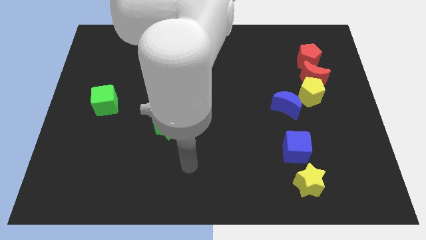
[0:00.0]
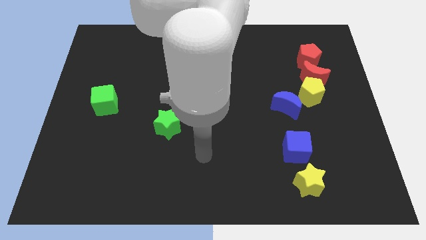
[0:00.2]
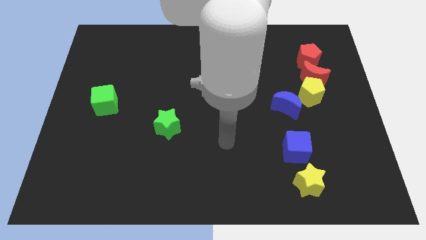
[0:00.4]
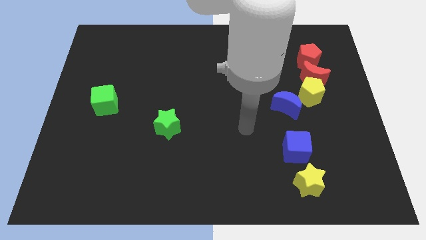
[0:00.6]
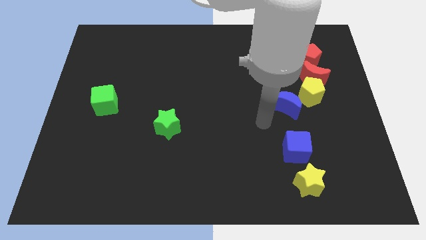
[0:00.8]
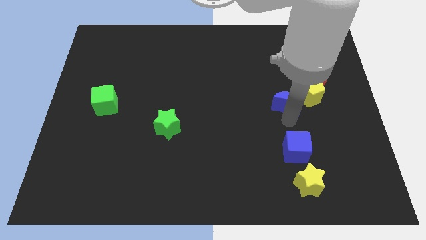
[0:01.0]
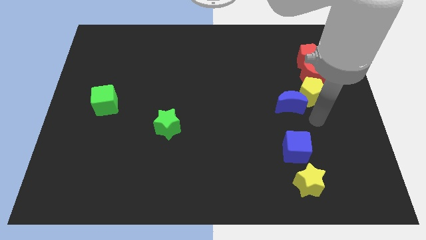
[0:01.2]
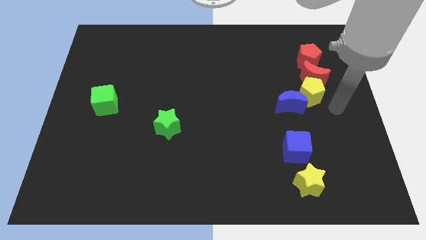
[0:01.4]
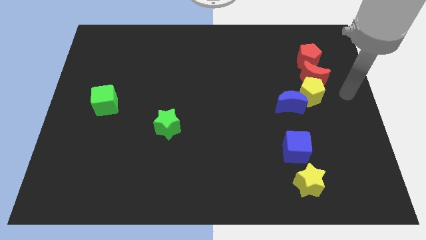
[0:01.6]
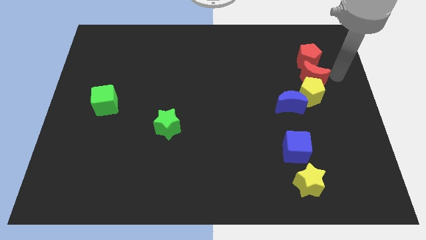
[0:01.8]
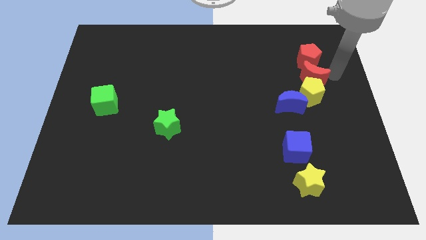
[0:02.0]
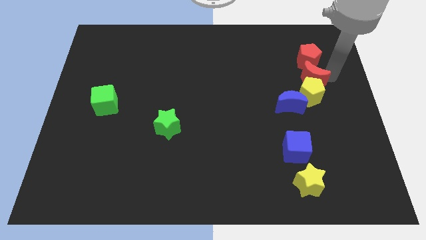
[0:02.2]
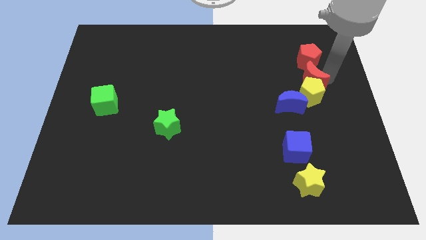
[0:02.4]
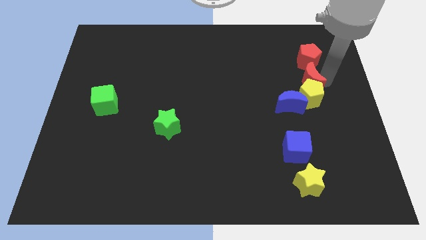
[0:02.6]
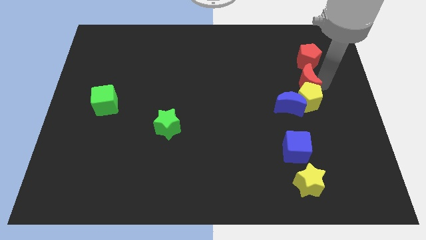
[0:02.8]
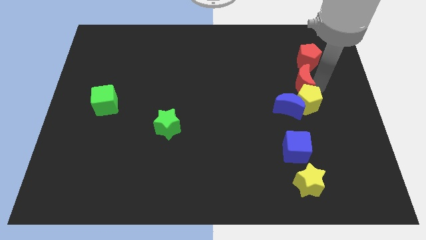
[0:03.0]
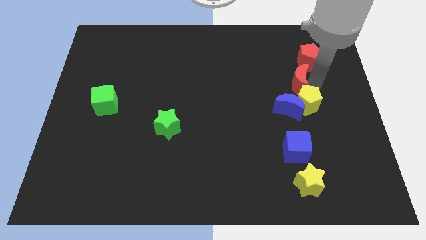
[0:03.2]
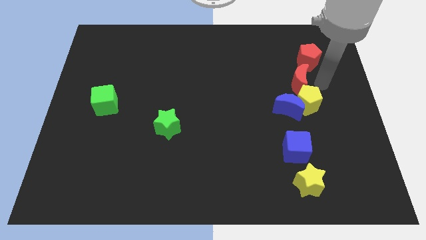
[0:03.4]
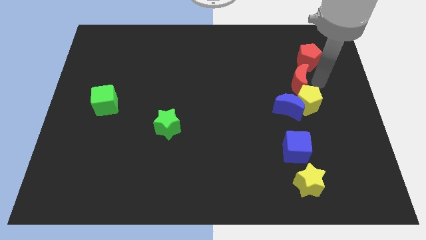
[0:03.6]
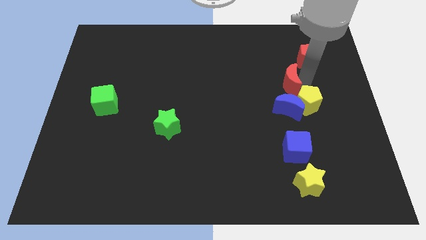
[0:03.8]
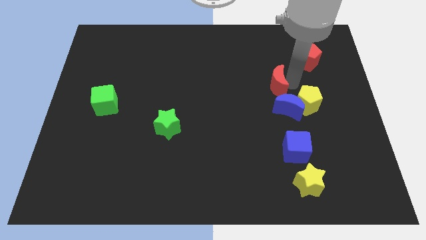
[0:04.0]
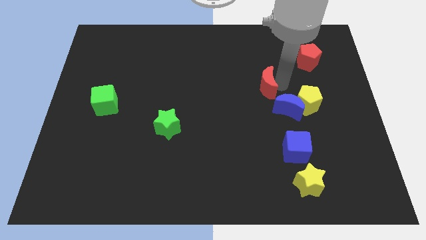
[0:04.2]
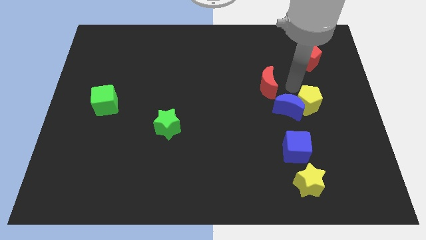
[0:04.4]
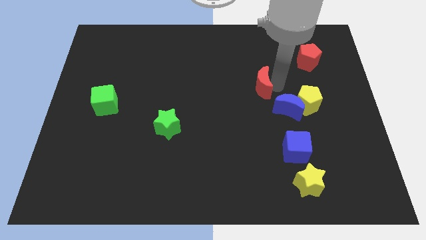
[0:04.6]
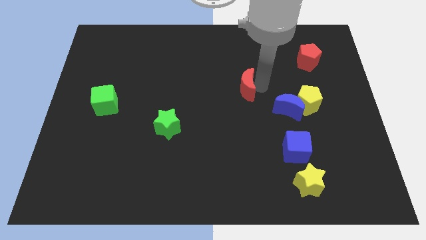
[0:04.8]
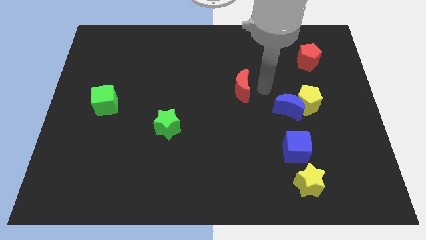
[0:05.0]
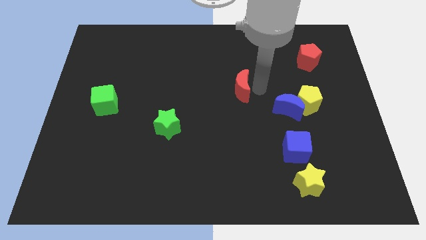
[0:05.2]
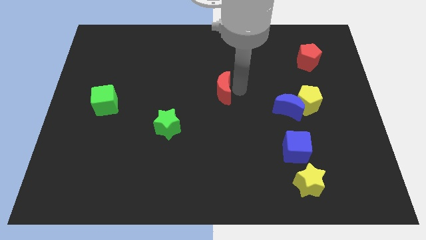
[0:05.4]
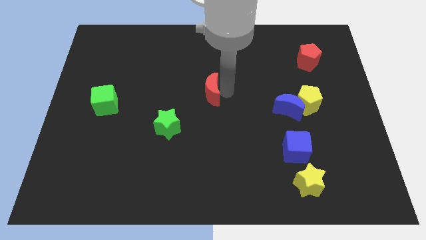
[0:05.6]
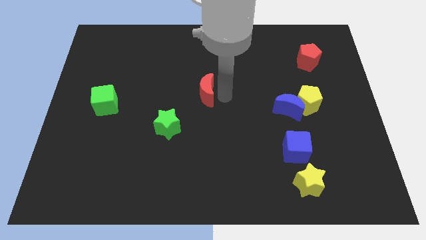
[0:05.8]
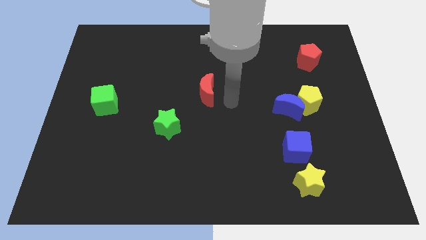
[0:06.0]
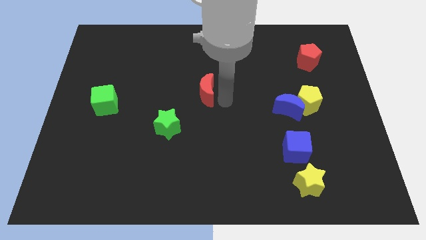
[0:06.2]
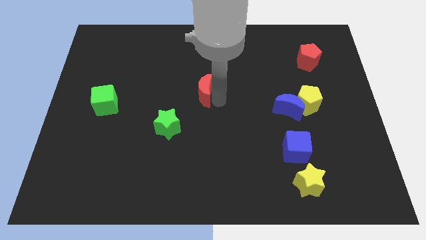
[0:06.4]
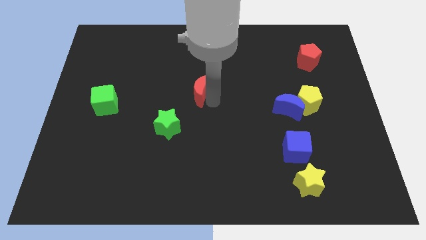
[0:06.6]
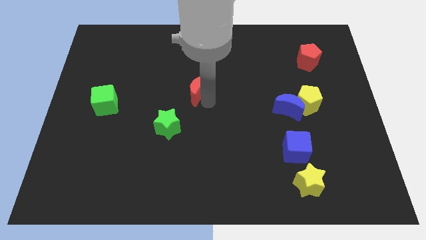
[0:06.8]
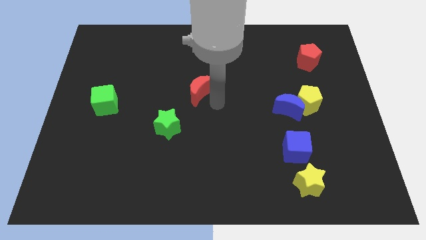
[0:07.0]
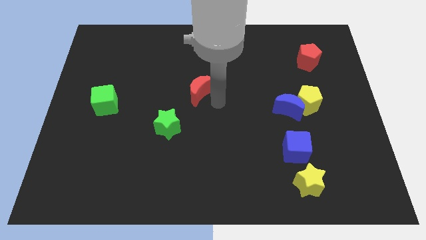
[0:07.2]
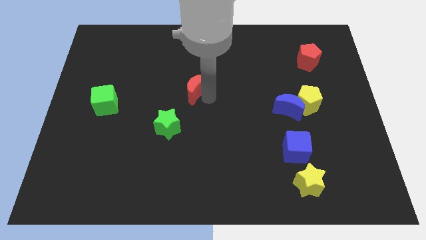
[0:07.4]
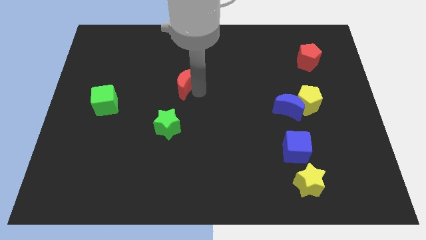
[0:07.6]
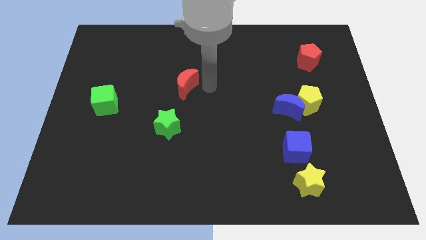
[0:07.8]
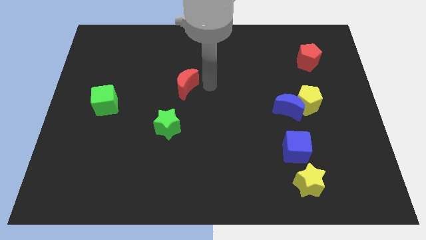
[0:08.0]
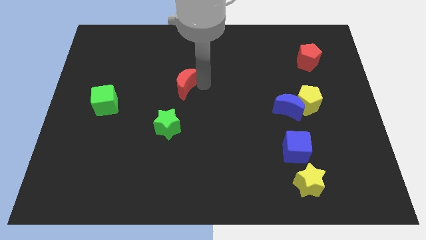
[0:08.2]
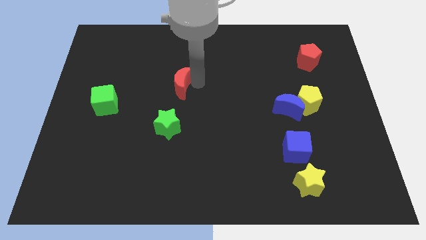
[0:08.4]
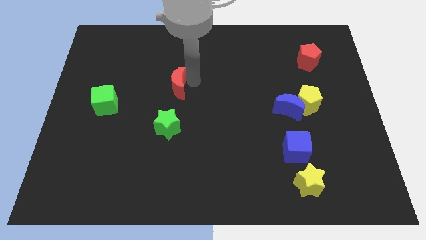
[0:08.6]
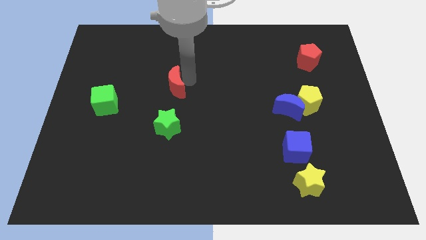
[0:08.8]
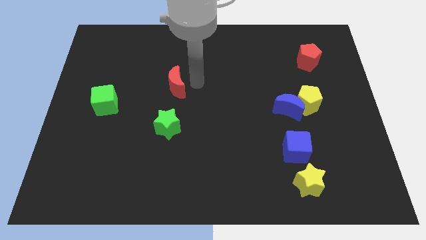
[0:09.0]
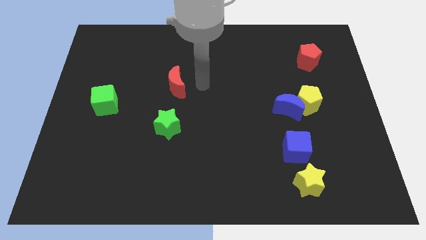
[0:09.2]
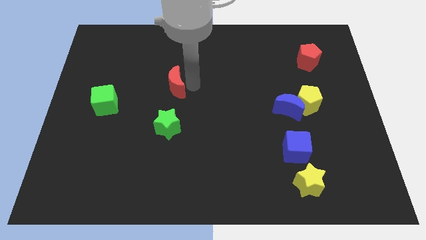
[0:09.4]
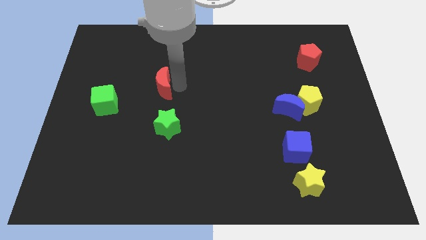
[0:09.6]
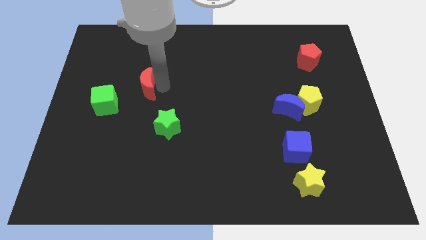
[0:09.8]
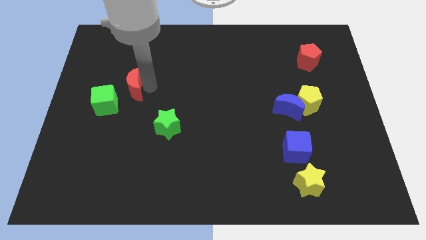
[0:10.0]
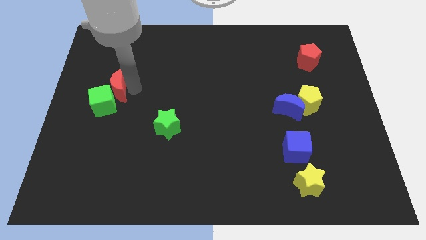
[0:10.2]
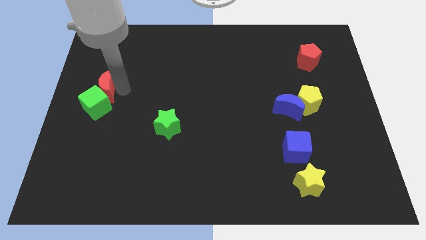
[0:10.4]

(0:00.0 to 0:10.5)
put the red moon to the left side of the board

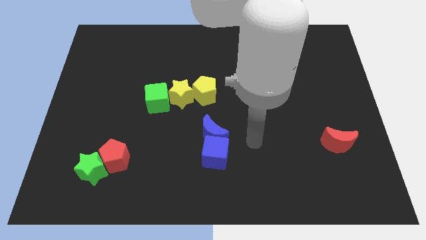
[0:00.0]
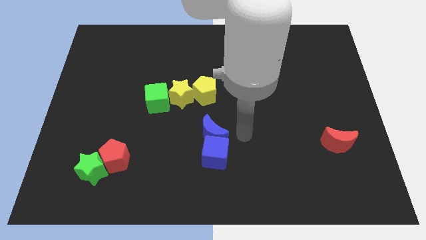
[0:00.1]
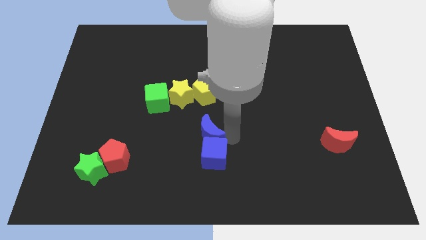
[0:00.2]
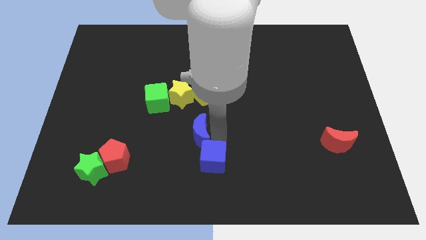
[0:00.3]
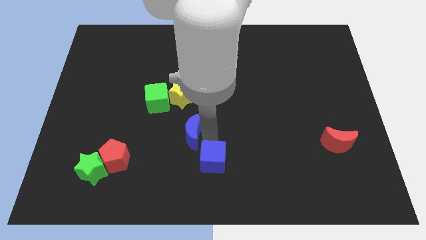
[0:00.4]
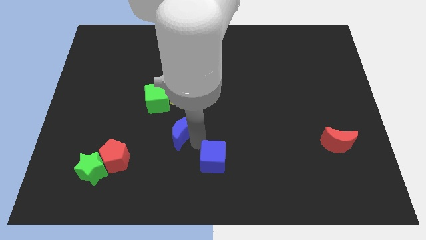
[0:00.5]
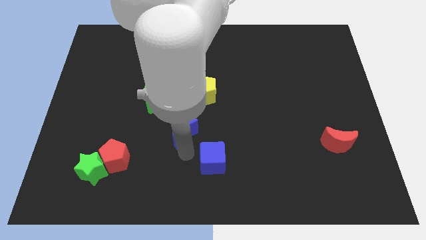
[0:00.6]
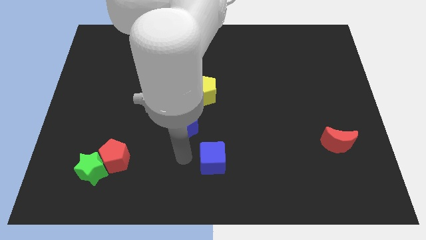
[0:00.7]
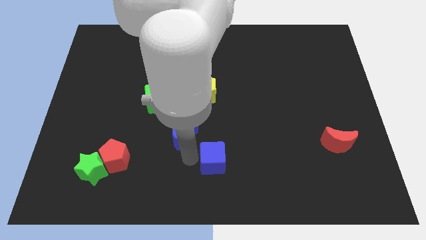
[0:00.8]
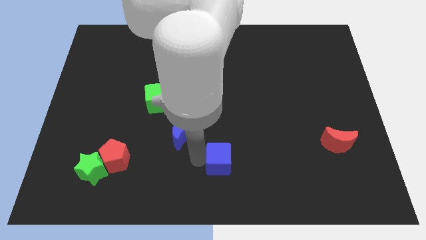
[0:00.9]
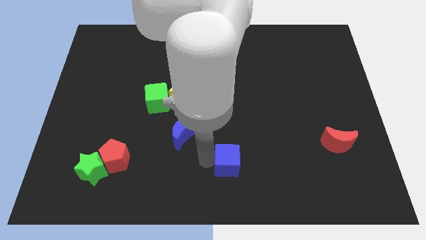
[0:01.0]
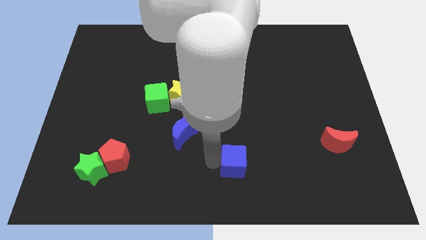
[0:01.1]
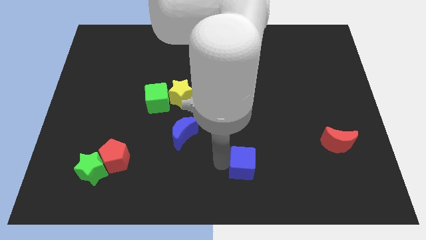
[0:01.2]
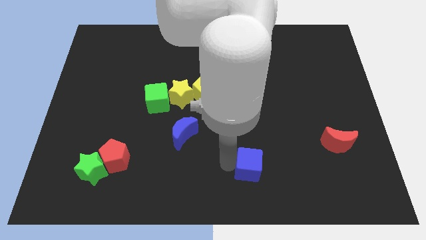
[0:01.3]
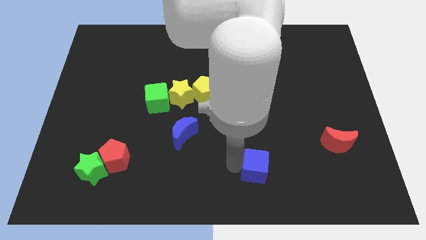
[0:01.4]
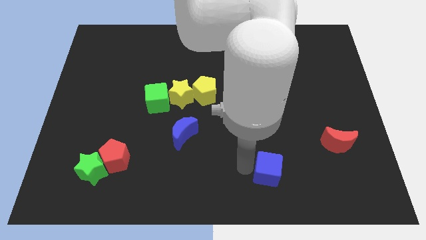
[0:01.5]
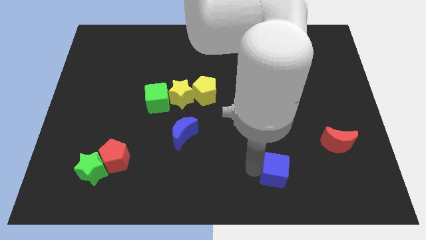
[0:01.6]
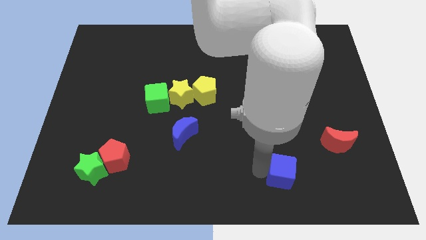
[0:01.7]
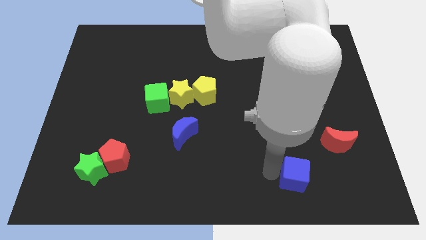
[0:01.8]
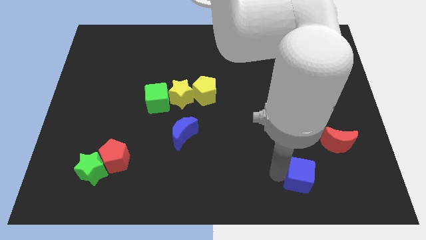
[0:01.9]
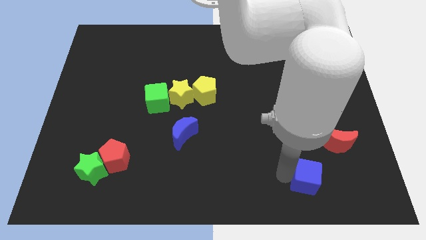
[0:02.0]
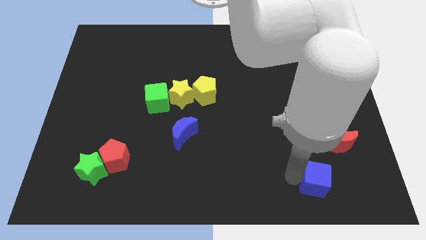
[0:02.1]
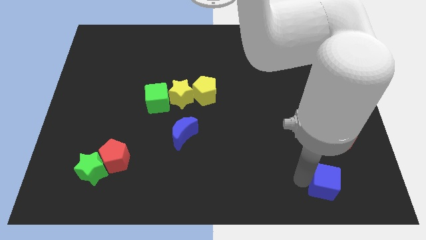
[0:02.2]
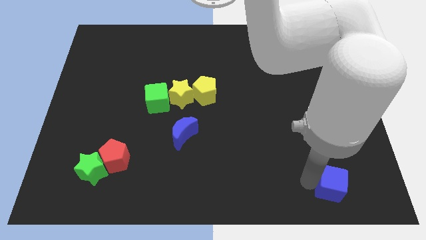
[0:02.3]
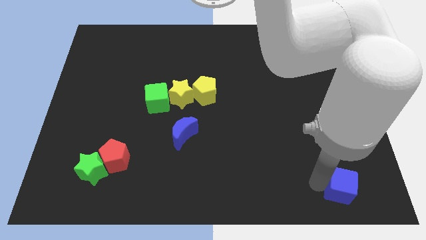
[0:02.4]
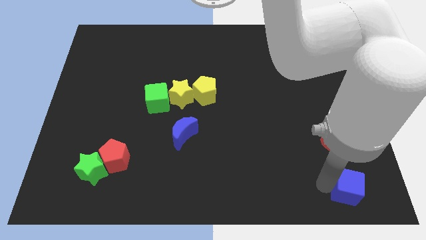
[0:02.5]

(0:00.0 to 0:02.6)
push the blue cube to the bottom right
